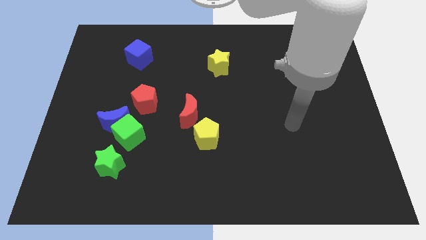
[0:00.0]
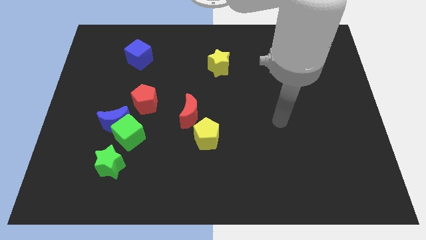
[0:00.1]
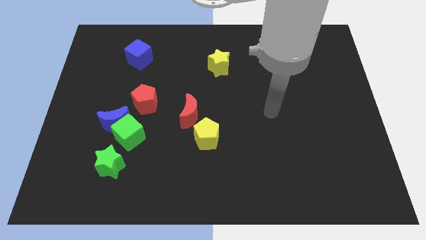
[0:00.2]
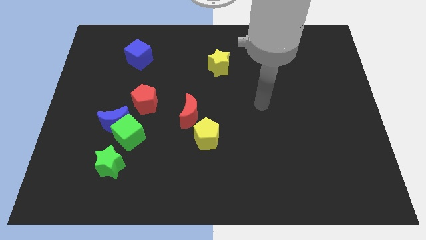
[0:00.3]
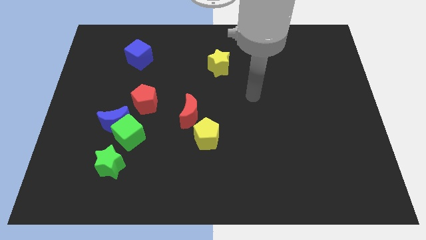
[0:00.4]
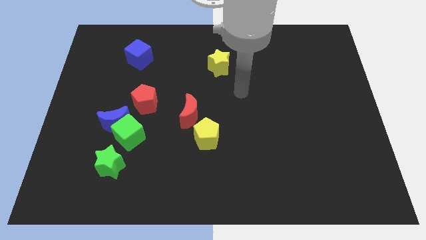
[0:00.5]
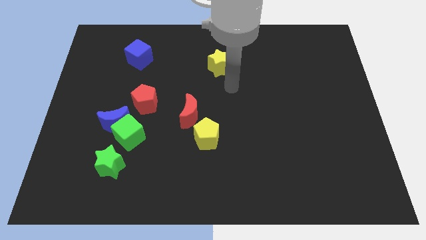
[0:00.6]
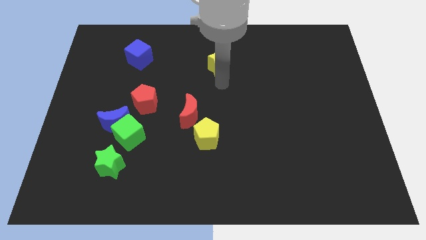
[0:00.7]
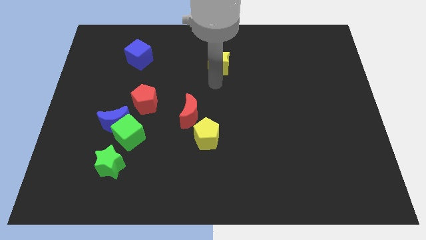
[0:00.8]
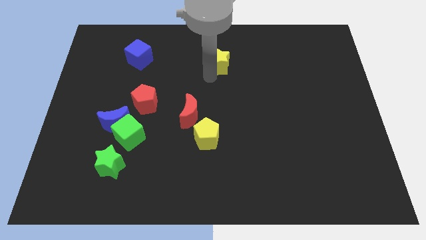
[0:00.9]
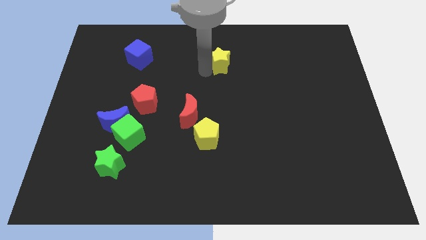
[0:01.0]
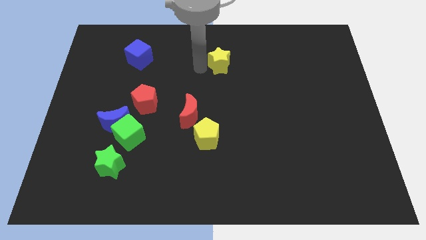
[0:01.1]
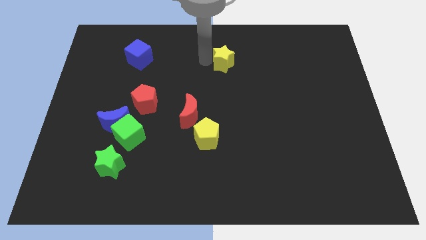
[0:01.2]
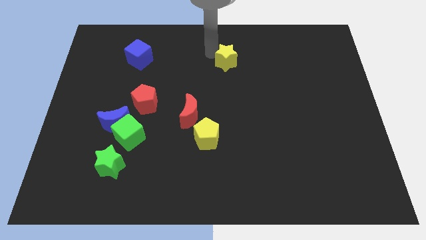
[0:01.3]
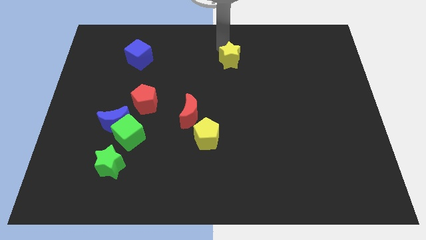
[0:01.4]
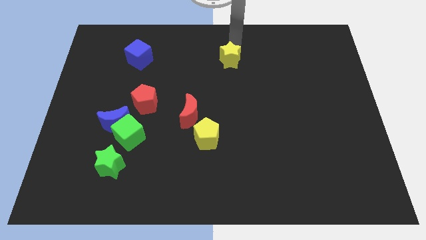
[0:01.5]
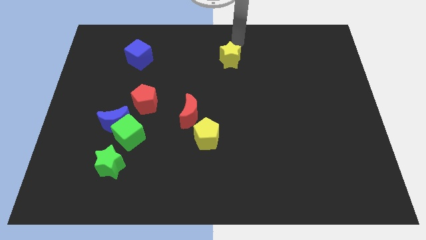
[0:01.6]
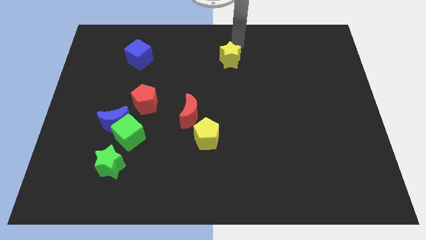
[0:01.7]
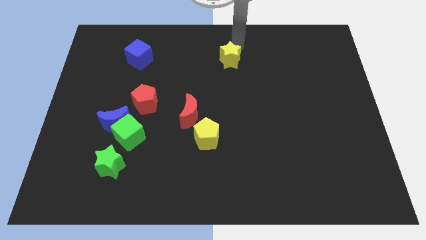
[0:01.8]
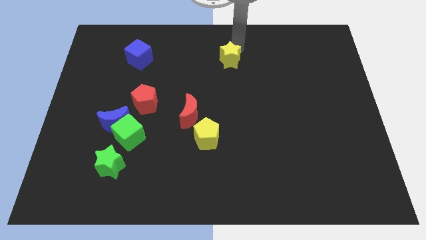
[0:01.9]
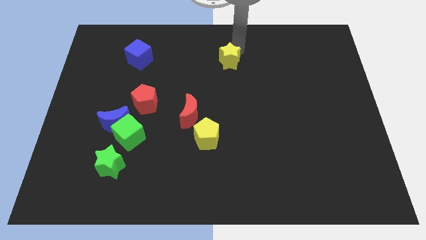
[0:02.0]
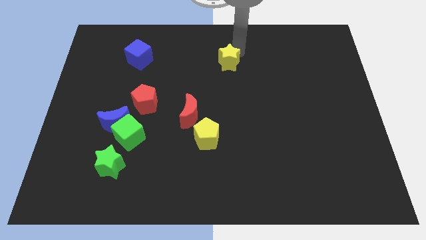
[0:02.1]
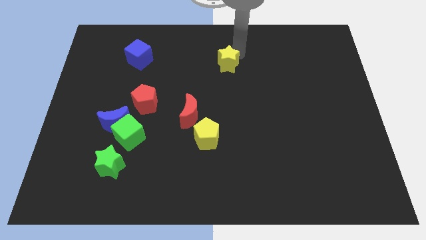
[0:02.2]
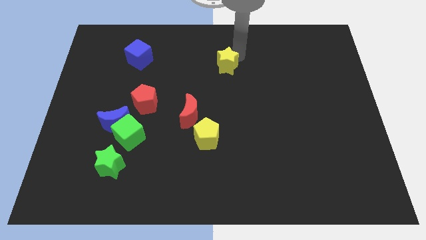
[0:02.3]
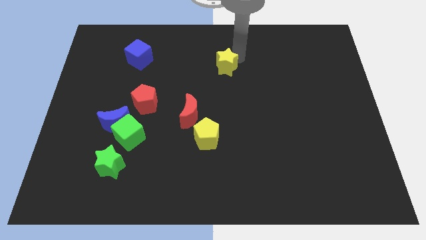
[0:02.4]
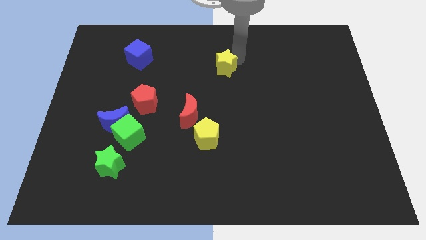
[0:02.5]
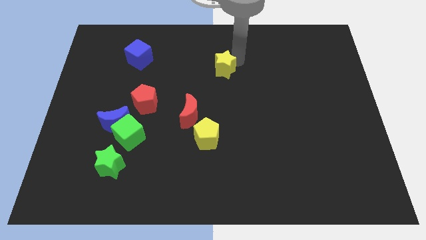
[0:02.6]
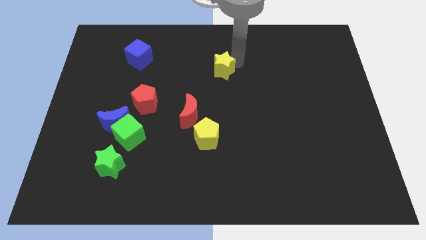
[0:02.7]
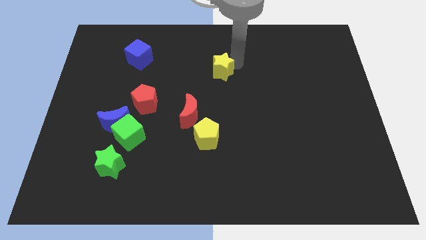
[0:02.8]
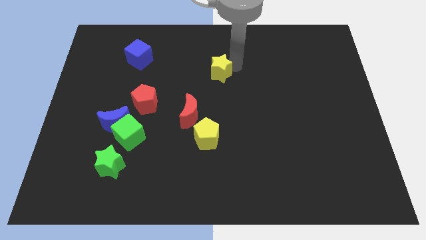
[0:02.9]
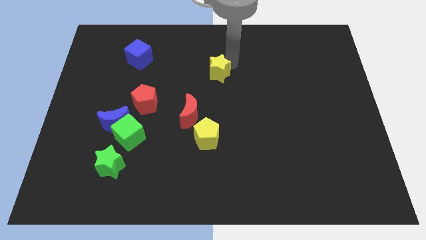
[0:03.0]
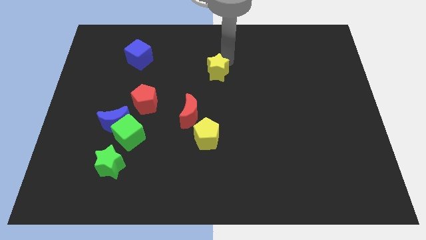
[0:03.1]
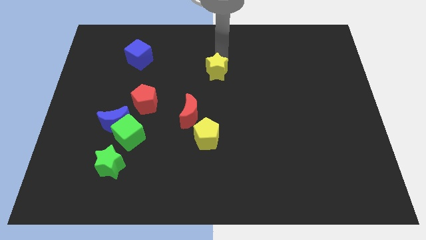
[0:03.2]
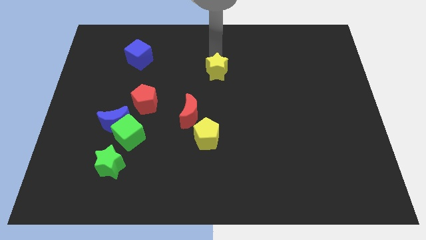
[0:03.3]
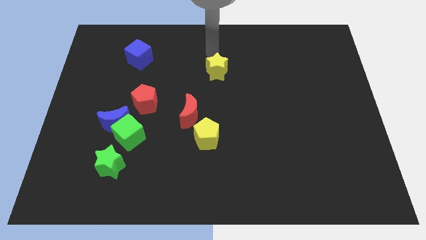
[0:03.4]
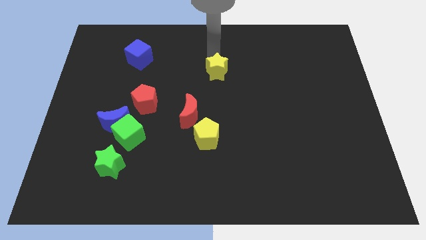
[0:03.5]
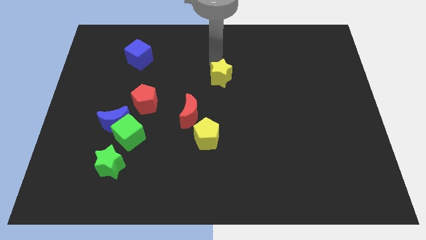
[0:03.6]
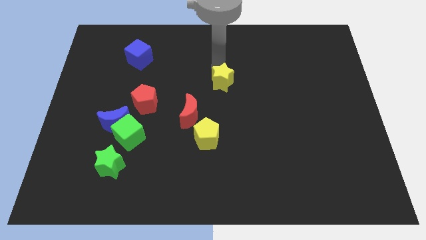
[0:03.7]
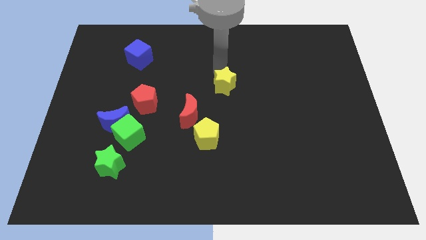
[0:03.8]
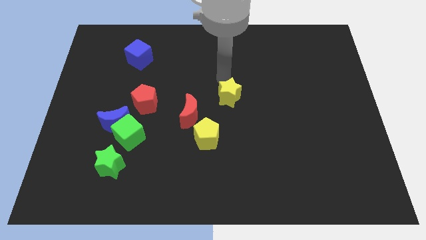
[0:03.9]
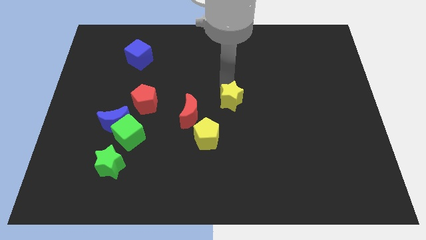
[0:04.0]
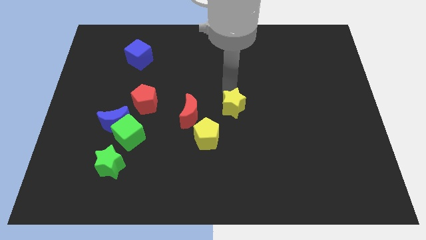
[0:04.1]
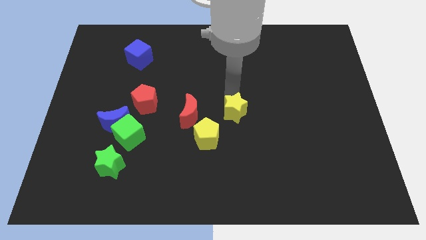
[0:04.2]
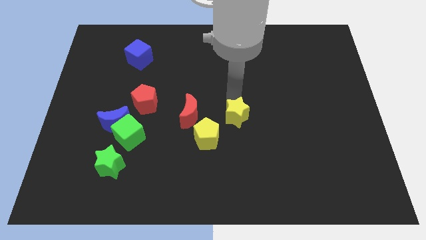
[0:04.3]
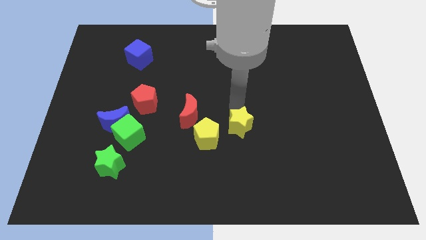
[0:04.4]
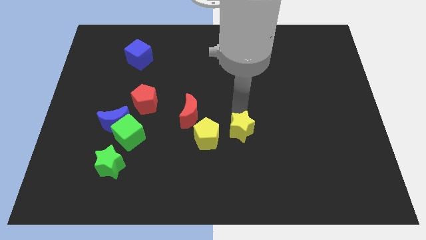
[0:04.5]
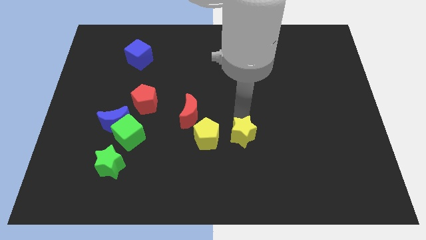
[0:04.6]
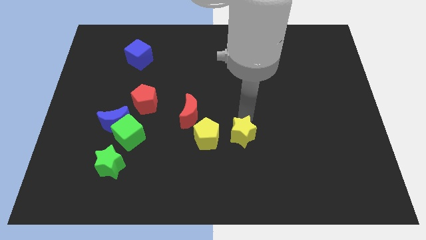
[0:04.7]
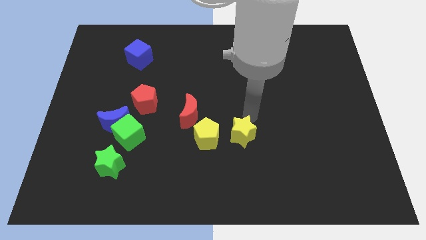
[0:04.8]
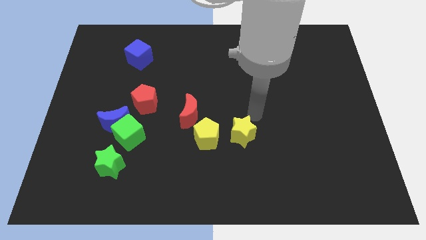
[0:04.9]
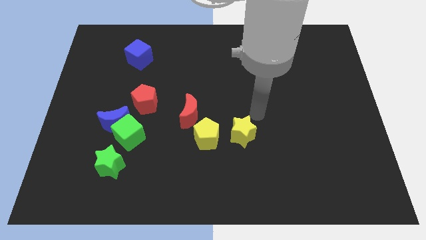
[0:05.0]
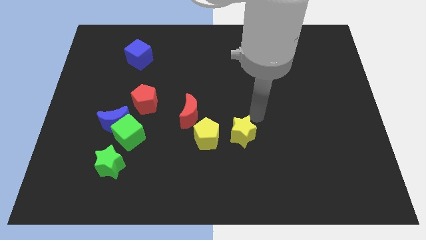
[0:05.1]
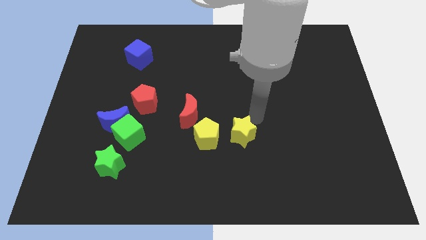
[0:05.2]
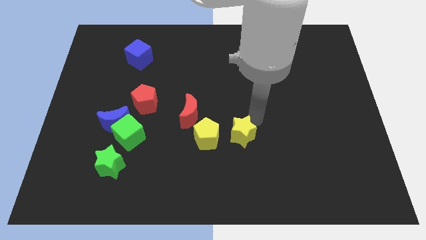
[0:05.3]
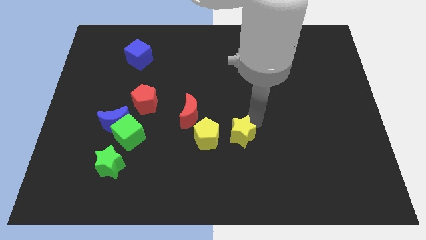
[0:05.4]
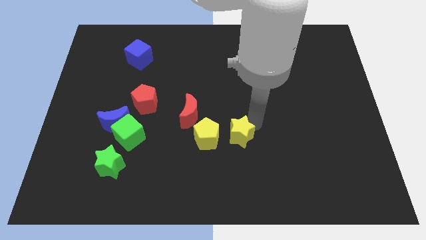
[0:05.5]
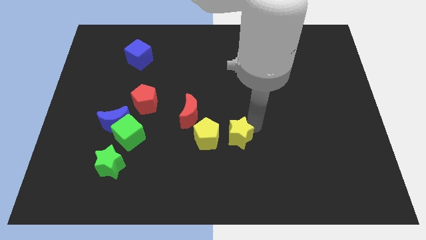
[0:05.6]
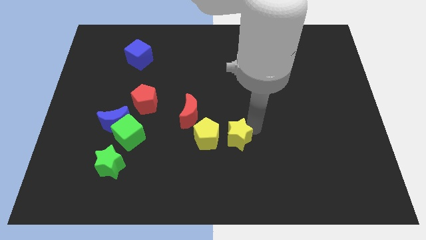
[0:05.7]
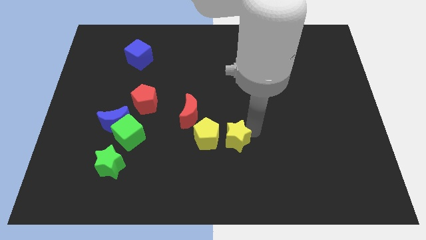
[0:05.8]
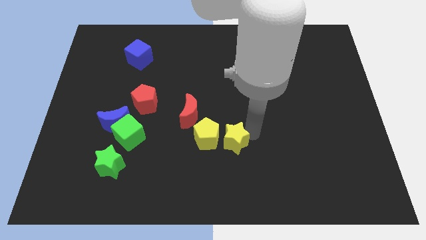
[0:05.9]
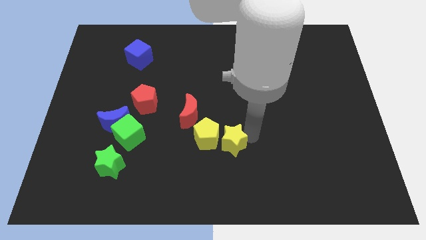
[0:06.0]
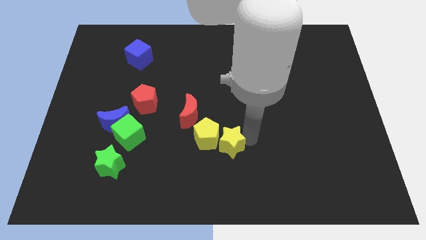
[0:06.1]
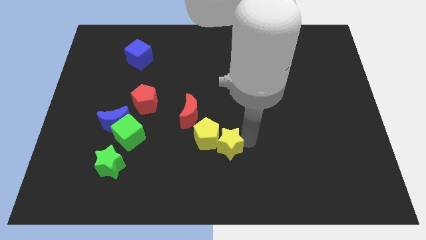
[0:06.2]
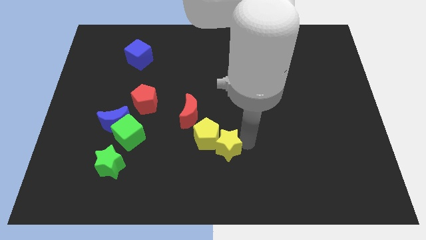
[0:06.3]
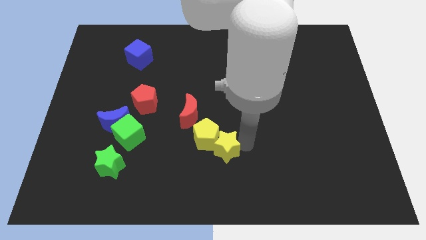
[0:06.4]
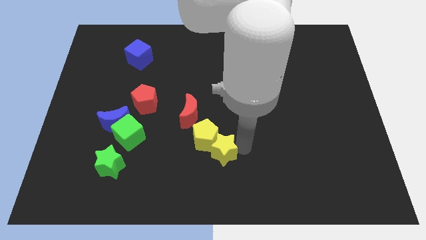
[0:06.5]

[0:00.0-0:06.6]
put the yellow star to the bottom of the yellow pentagon

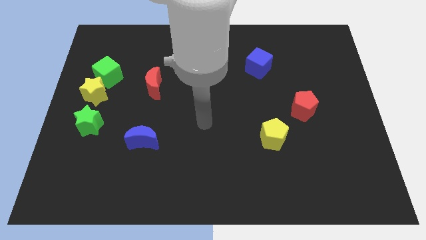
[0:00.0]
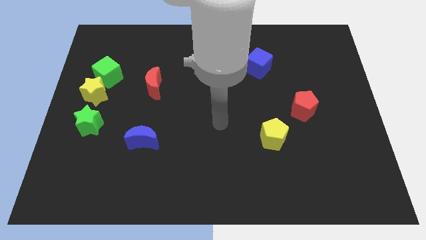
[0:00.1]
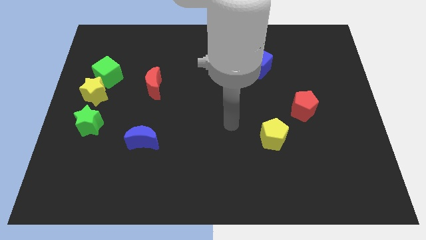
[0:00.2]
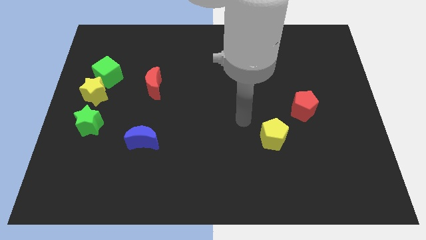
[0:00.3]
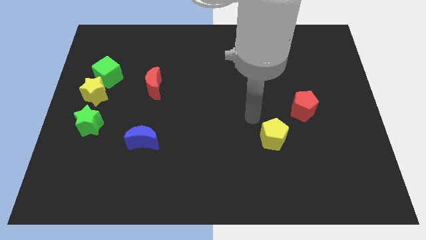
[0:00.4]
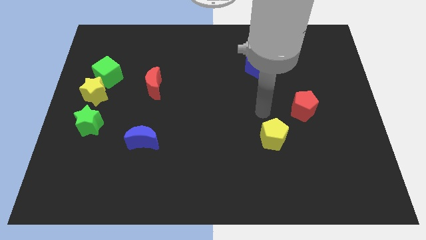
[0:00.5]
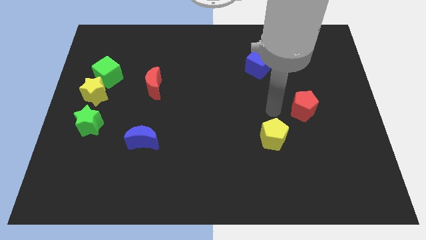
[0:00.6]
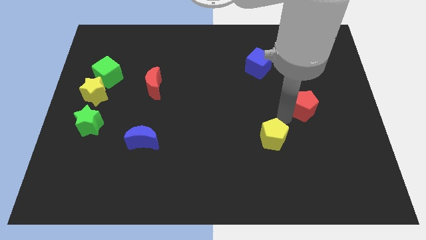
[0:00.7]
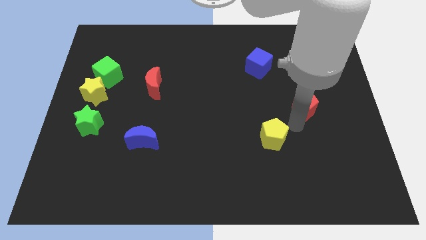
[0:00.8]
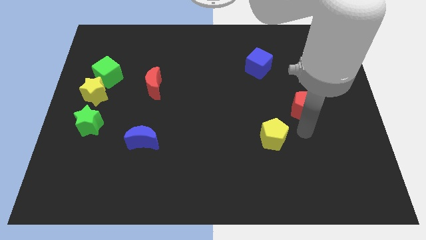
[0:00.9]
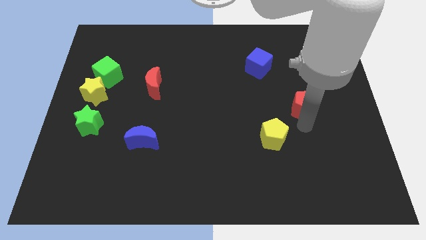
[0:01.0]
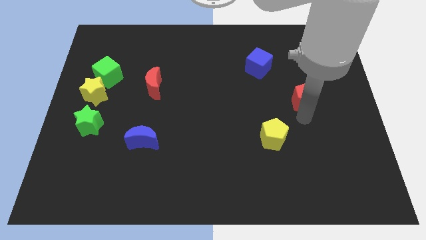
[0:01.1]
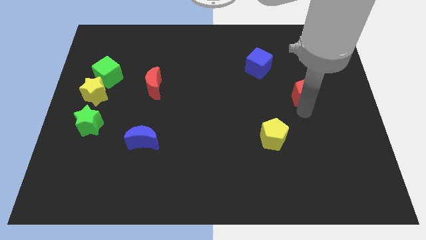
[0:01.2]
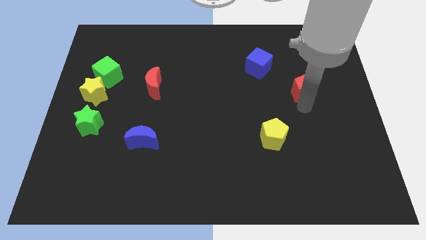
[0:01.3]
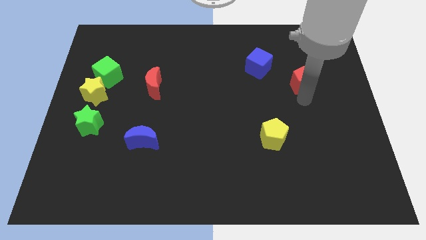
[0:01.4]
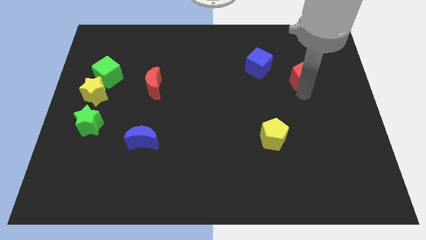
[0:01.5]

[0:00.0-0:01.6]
put the red pentagon to the right side of the blue cube
